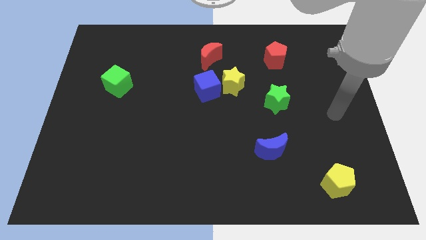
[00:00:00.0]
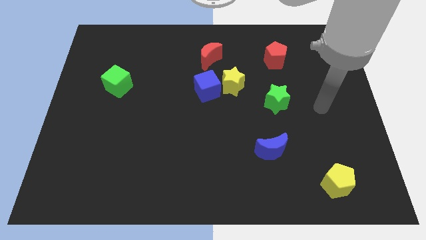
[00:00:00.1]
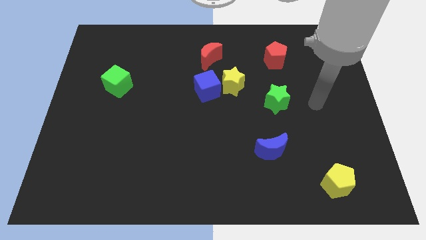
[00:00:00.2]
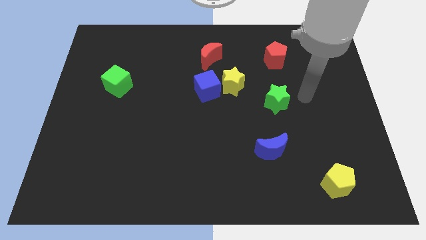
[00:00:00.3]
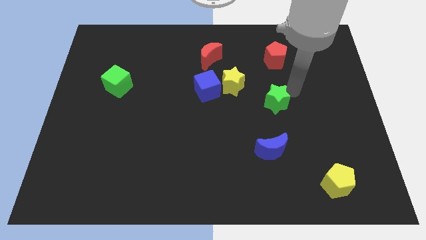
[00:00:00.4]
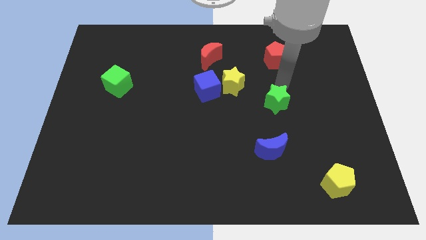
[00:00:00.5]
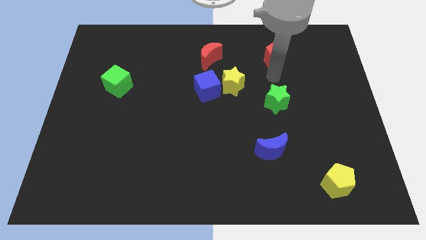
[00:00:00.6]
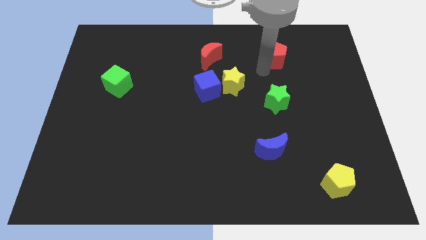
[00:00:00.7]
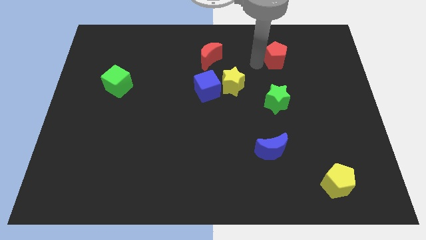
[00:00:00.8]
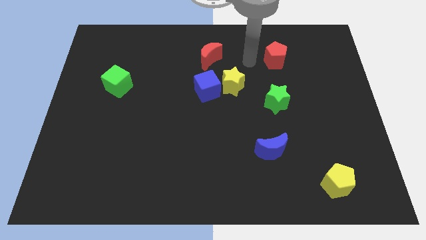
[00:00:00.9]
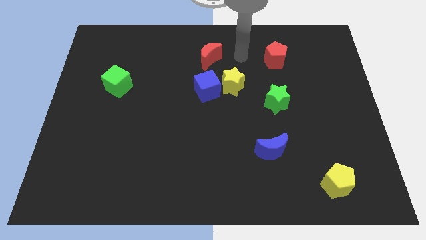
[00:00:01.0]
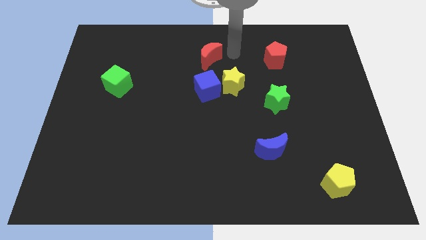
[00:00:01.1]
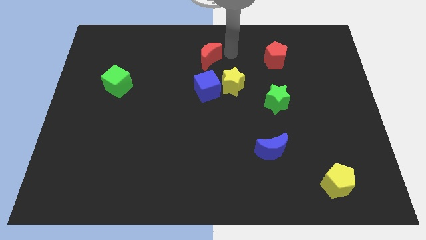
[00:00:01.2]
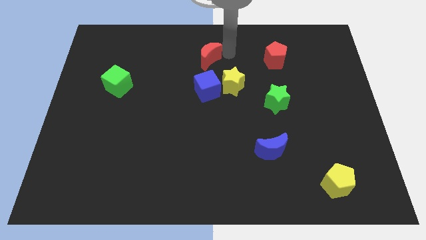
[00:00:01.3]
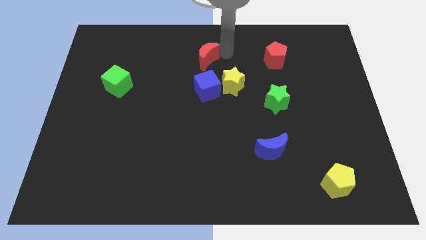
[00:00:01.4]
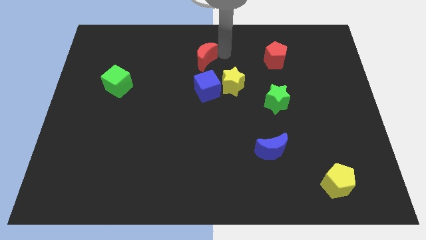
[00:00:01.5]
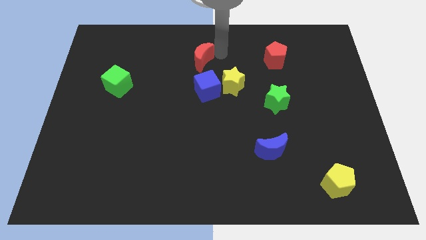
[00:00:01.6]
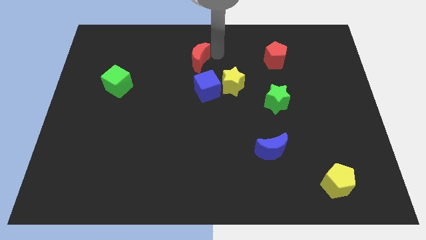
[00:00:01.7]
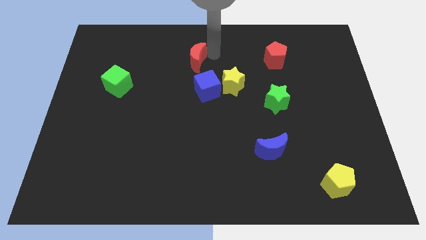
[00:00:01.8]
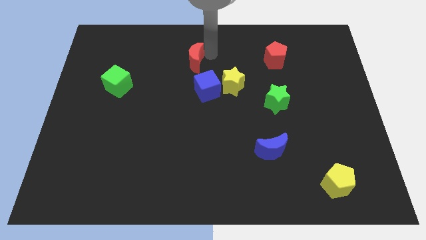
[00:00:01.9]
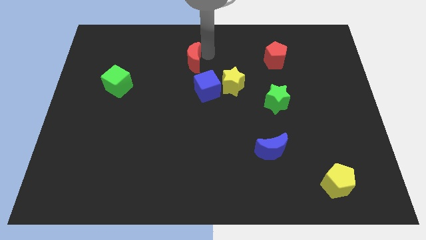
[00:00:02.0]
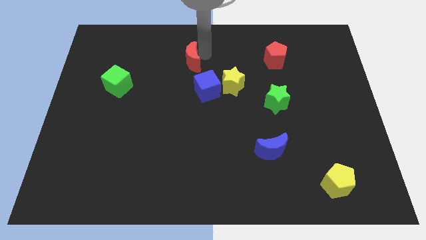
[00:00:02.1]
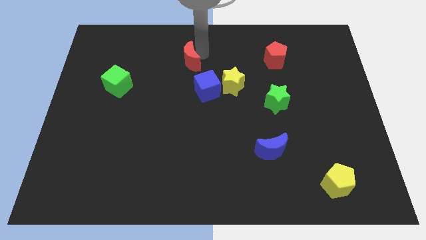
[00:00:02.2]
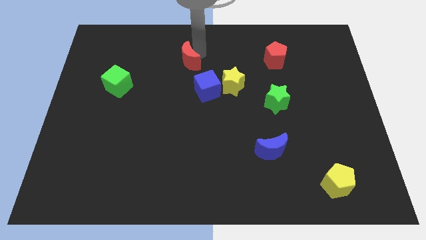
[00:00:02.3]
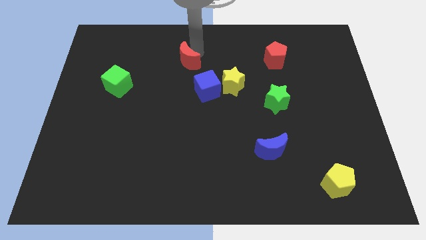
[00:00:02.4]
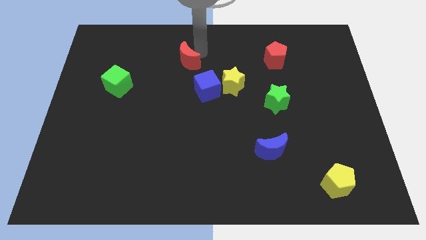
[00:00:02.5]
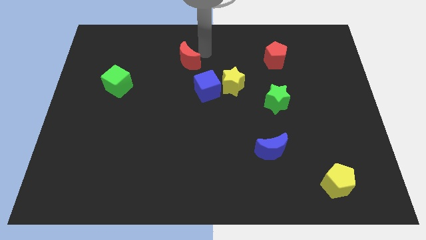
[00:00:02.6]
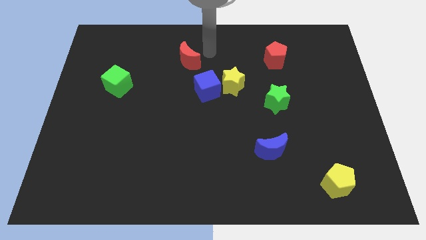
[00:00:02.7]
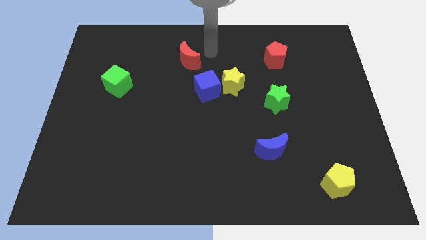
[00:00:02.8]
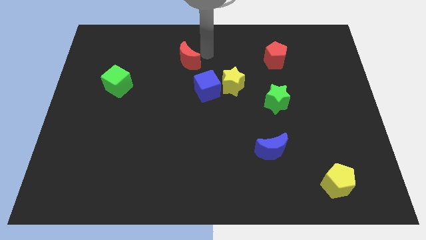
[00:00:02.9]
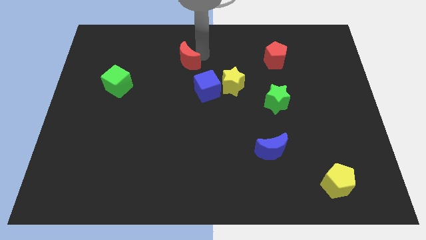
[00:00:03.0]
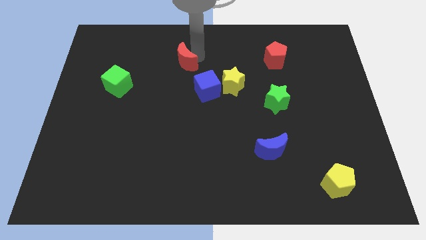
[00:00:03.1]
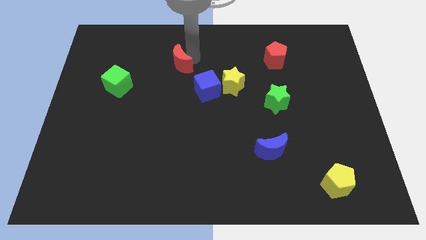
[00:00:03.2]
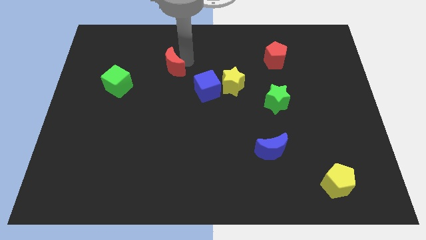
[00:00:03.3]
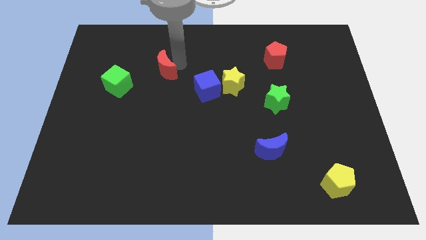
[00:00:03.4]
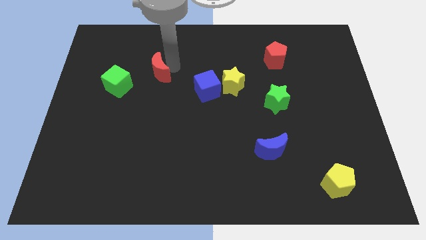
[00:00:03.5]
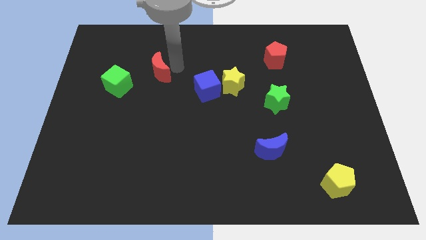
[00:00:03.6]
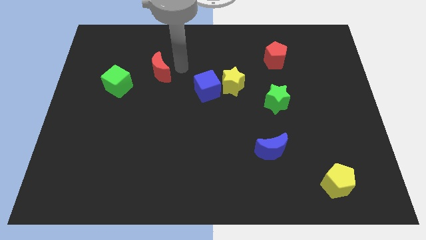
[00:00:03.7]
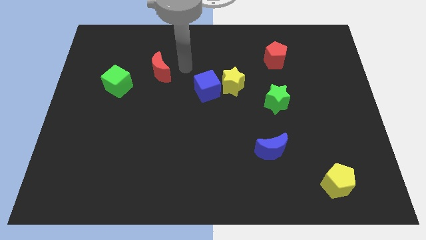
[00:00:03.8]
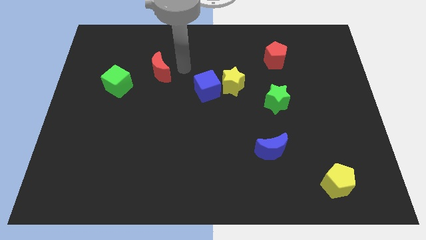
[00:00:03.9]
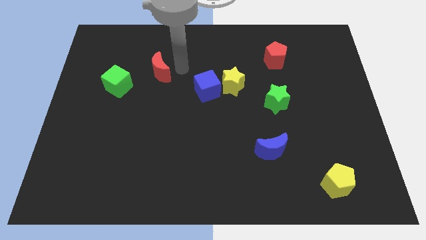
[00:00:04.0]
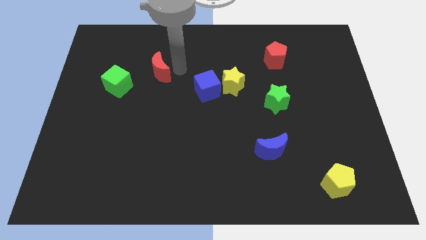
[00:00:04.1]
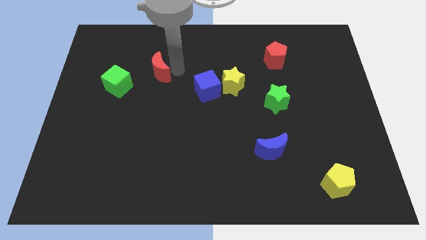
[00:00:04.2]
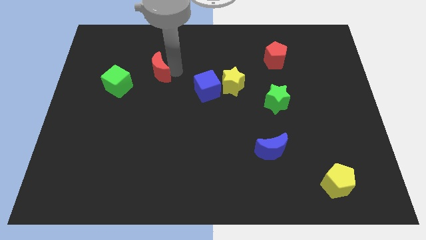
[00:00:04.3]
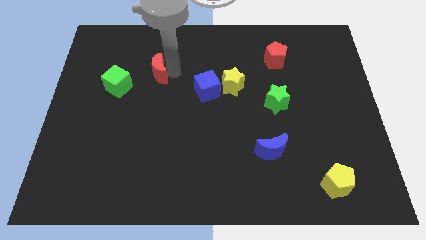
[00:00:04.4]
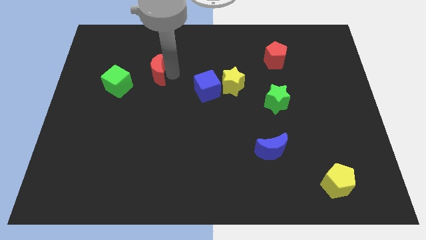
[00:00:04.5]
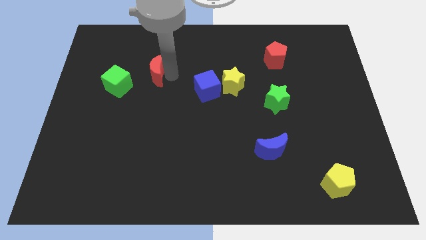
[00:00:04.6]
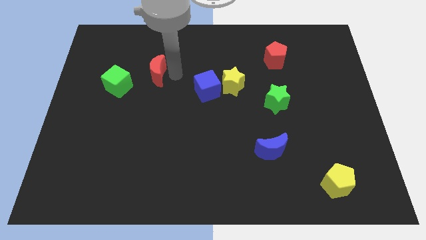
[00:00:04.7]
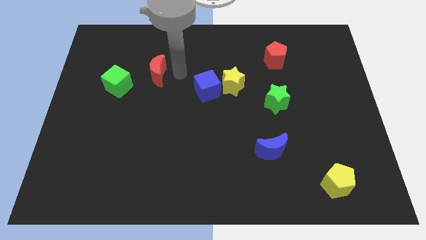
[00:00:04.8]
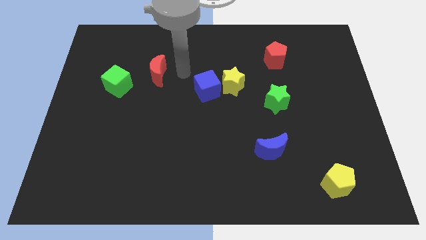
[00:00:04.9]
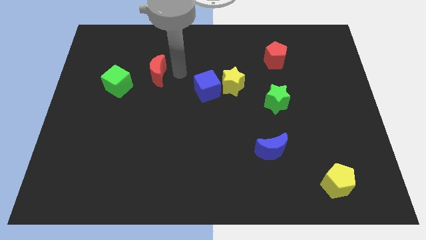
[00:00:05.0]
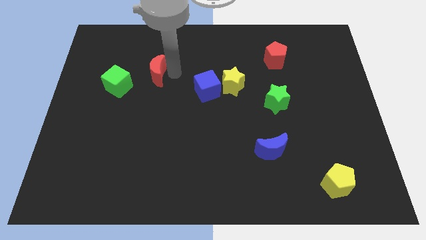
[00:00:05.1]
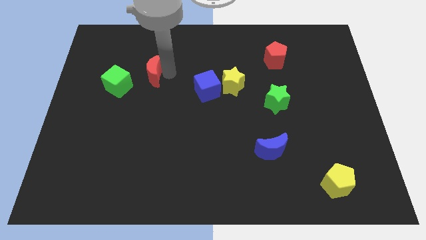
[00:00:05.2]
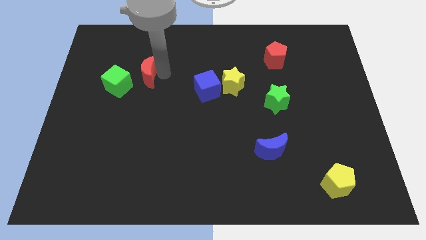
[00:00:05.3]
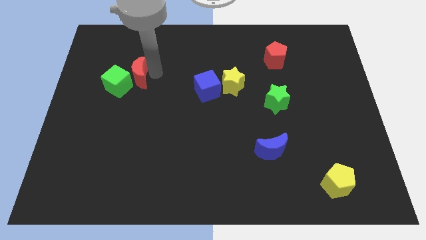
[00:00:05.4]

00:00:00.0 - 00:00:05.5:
slide the red moon to the green cube

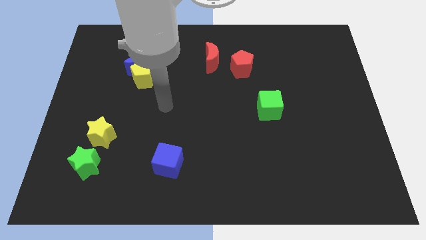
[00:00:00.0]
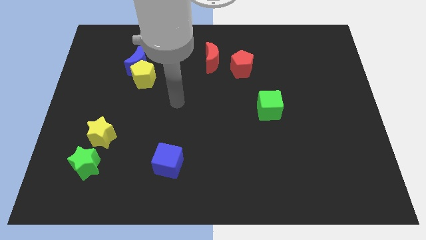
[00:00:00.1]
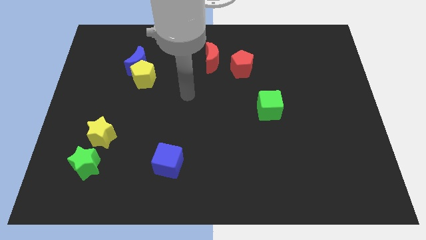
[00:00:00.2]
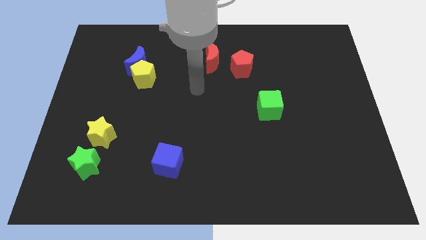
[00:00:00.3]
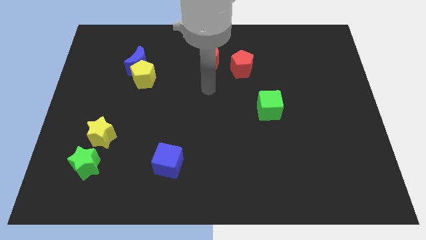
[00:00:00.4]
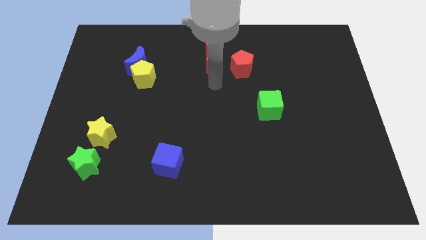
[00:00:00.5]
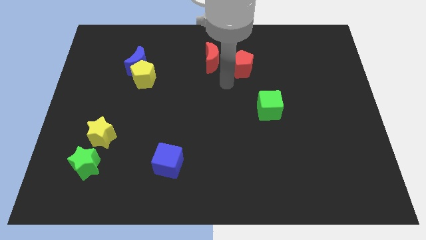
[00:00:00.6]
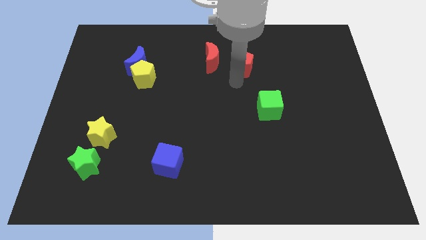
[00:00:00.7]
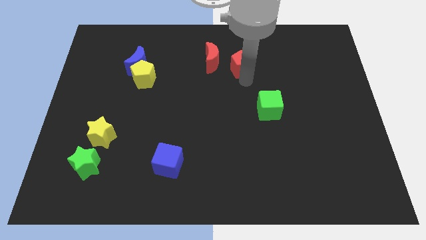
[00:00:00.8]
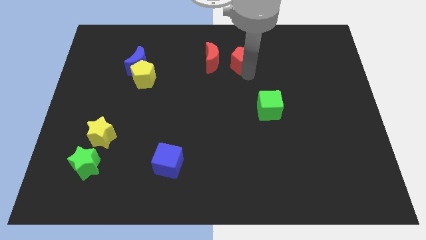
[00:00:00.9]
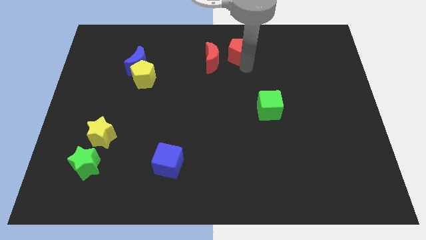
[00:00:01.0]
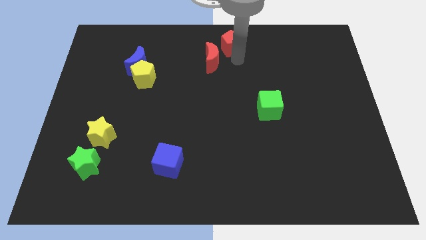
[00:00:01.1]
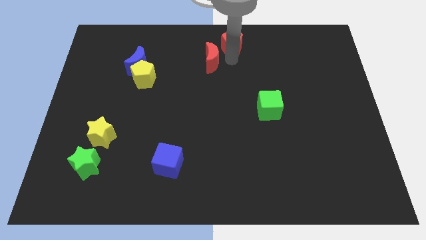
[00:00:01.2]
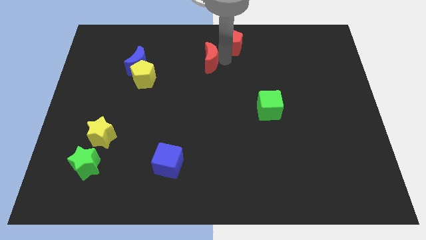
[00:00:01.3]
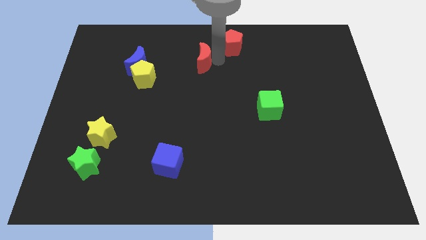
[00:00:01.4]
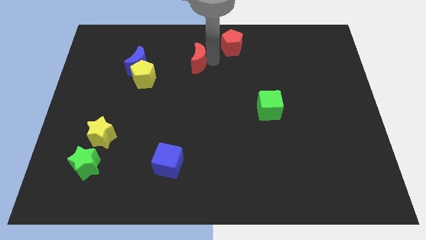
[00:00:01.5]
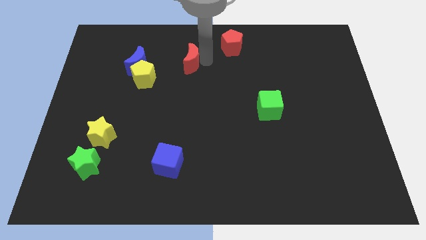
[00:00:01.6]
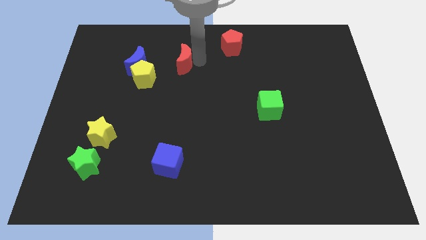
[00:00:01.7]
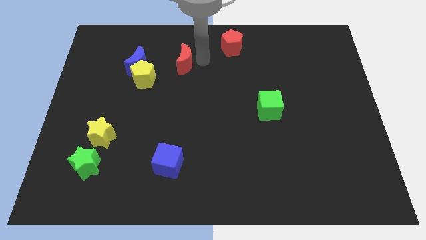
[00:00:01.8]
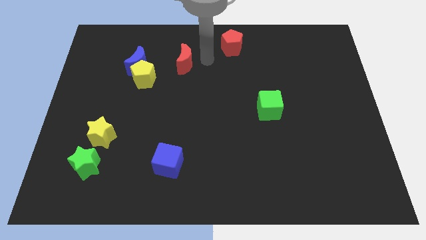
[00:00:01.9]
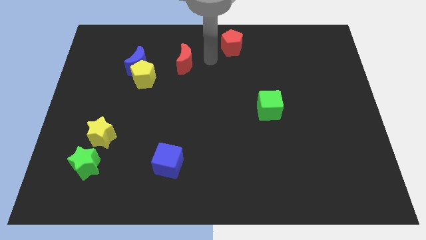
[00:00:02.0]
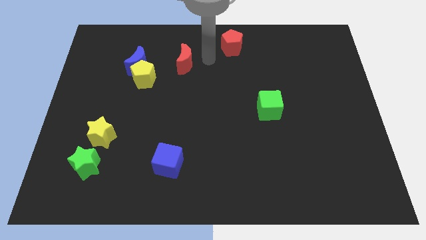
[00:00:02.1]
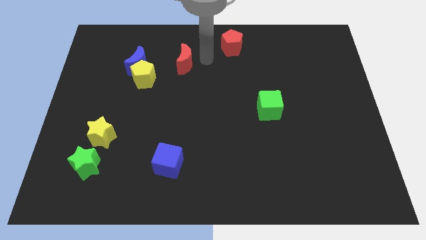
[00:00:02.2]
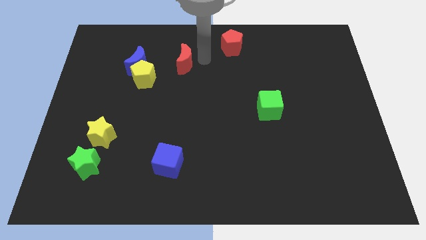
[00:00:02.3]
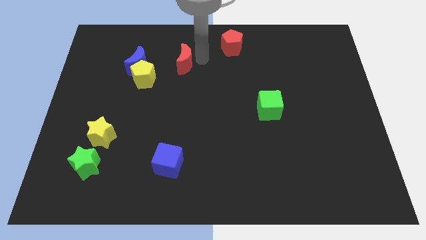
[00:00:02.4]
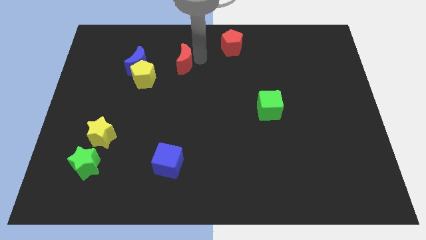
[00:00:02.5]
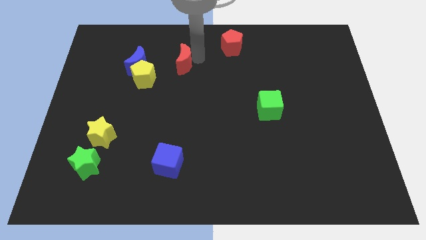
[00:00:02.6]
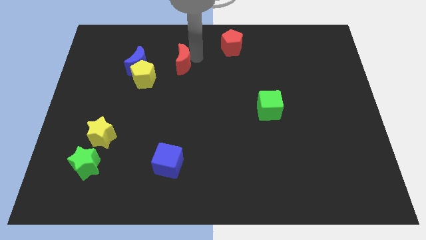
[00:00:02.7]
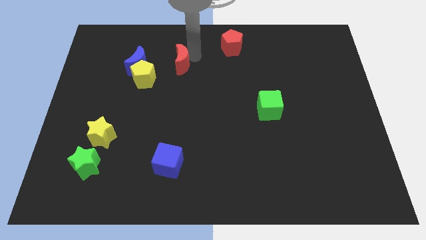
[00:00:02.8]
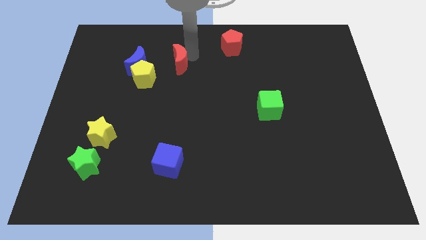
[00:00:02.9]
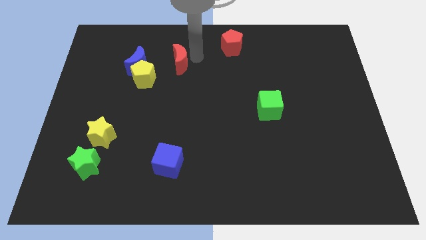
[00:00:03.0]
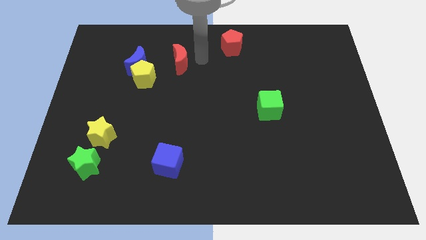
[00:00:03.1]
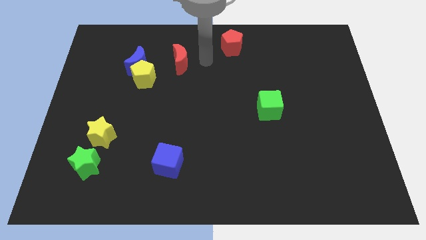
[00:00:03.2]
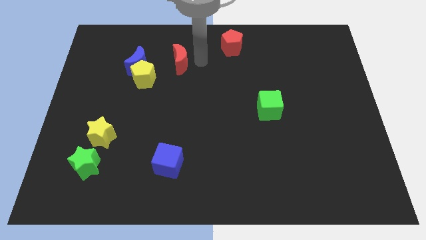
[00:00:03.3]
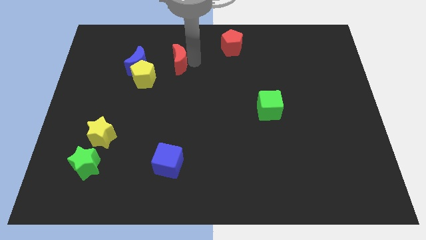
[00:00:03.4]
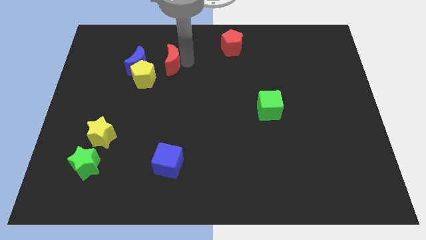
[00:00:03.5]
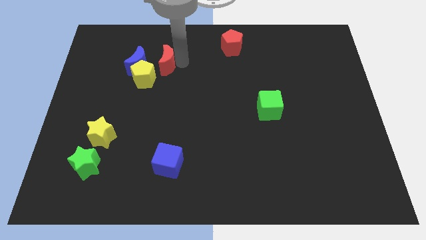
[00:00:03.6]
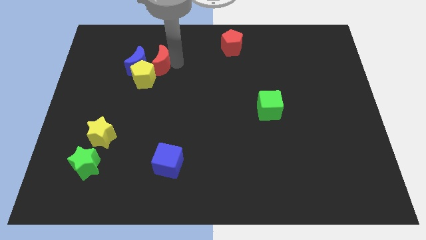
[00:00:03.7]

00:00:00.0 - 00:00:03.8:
put the red moon close to the blue moon
